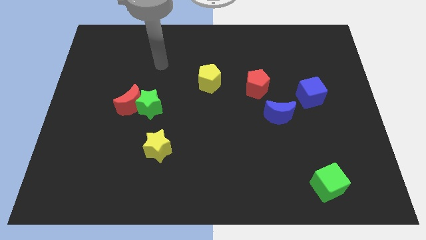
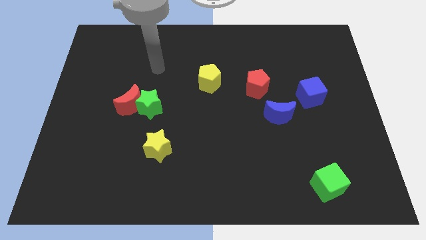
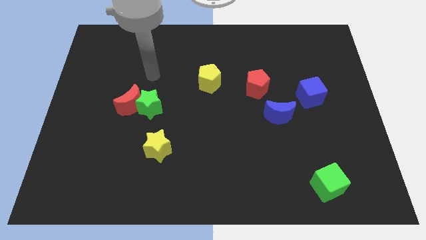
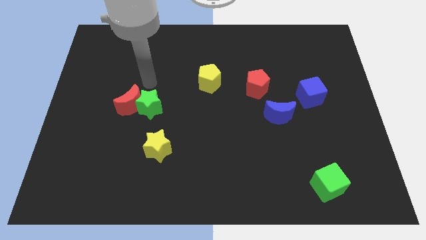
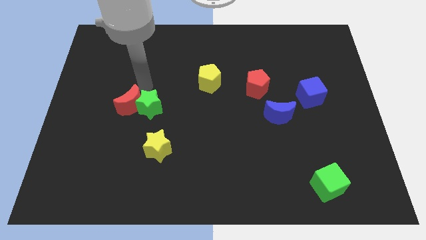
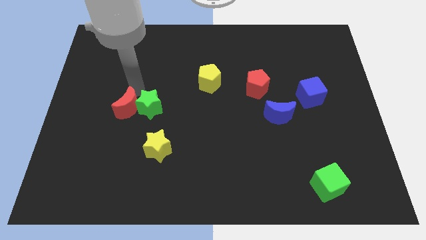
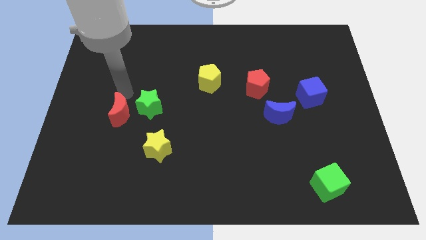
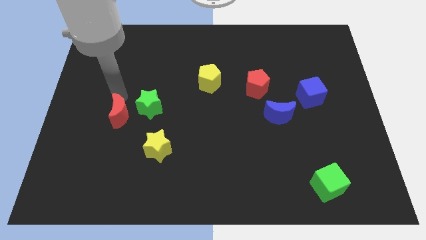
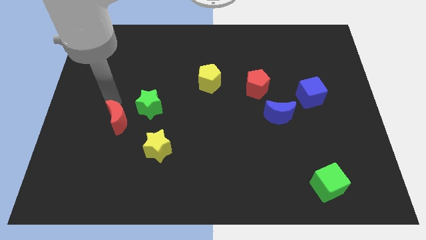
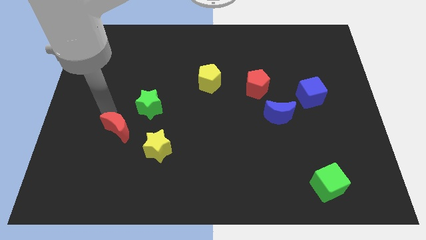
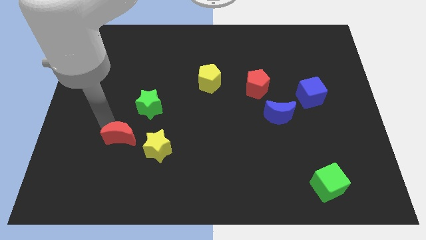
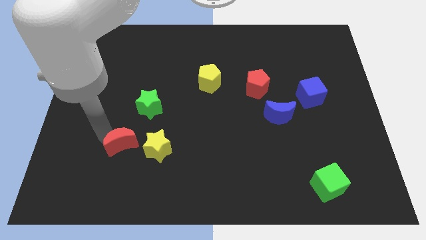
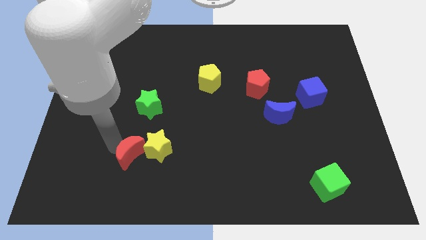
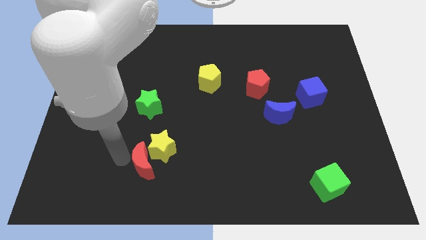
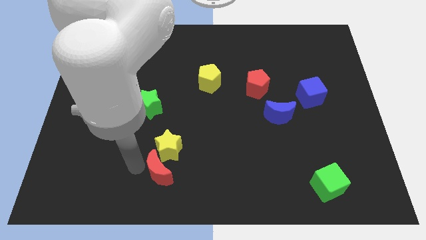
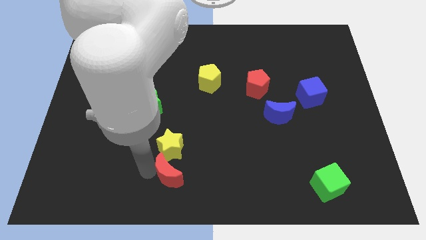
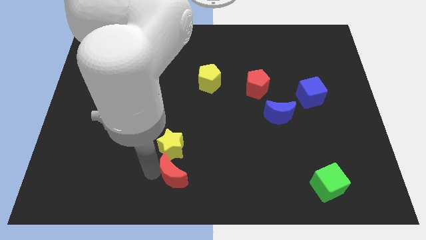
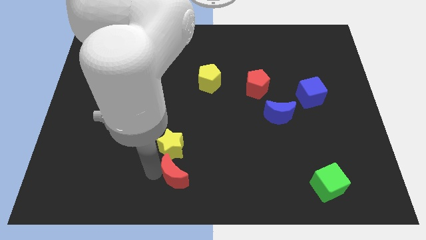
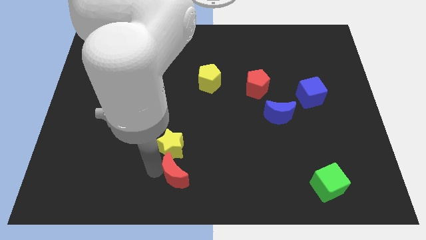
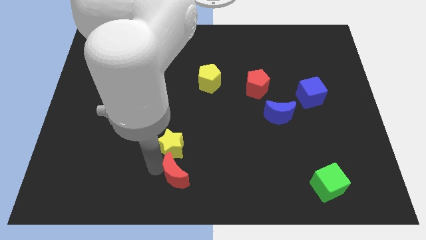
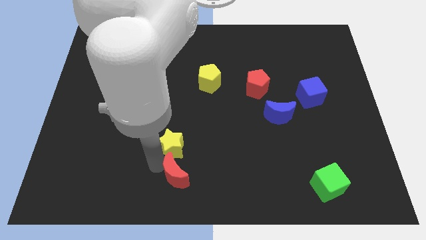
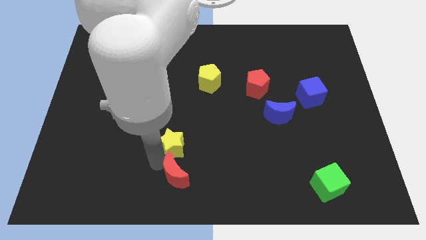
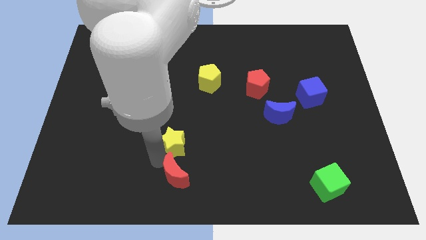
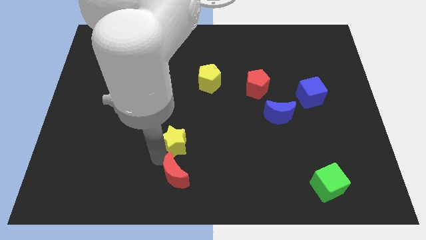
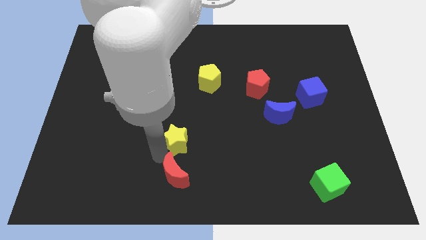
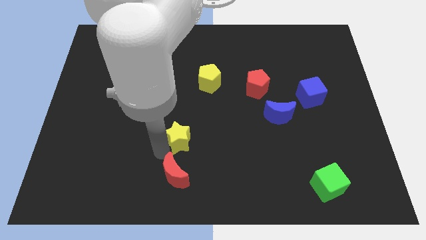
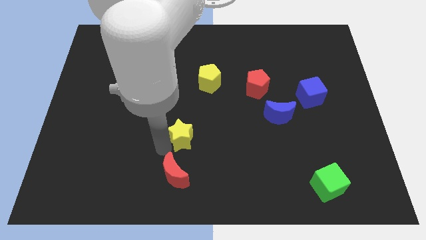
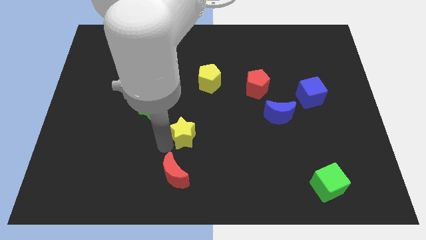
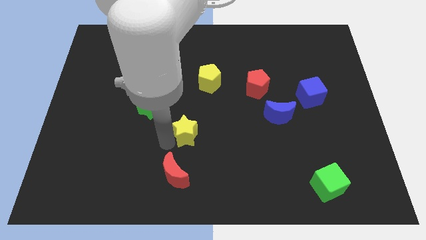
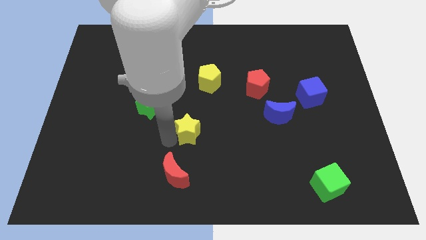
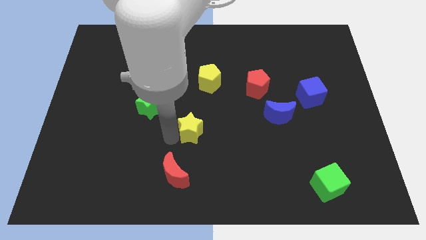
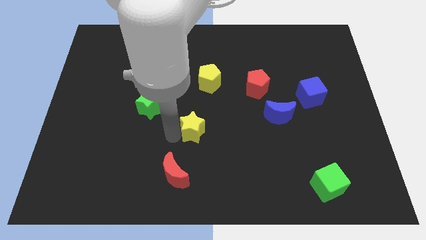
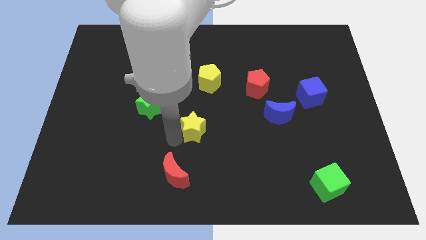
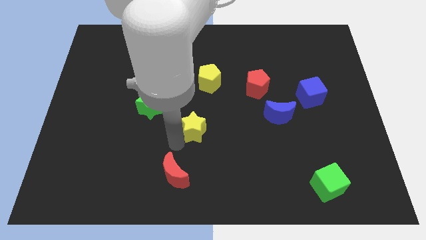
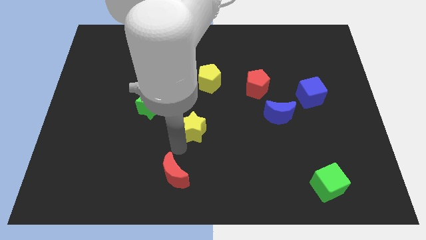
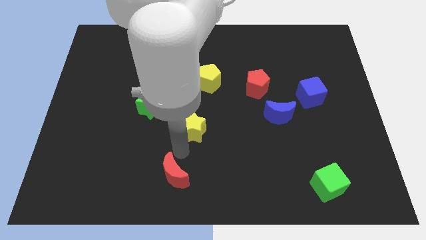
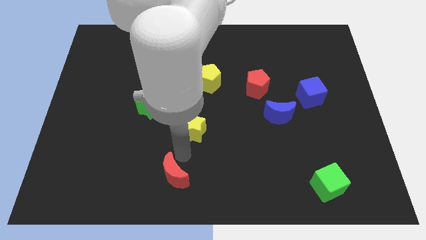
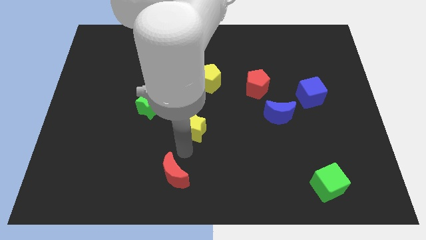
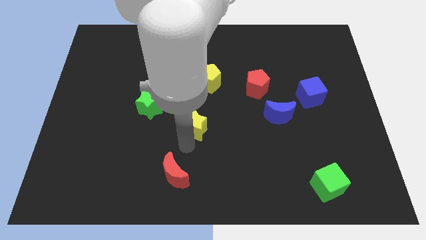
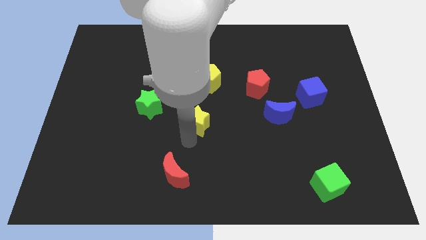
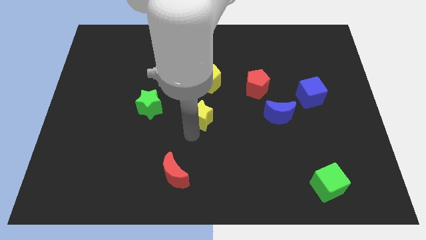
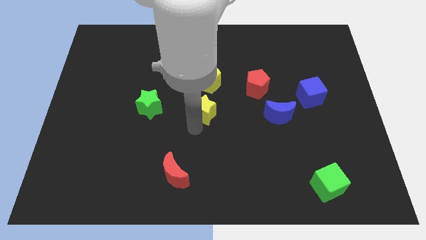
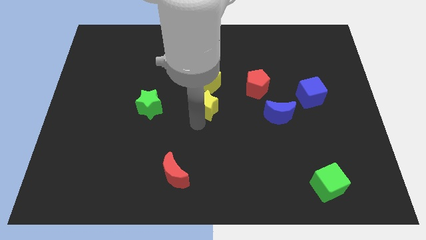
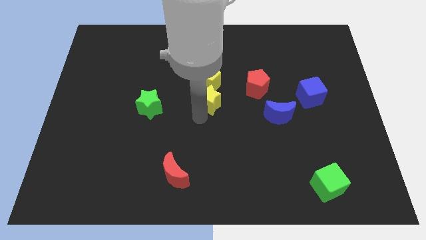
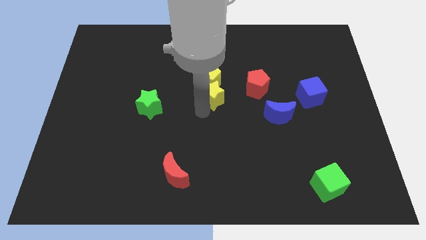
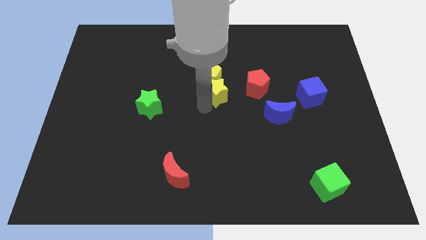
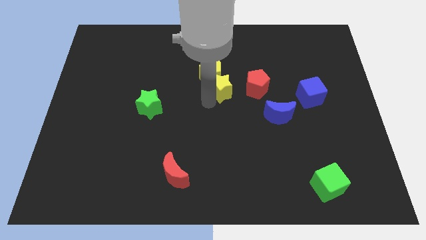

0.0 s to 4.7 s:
slide the yellow star diagonally upwards and right

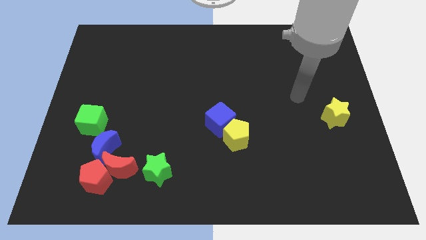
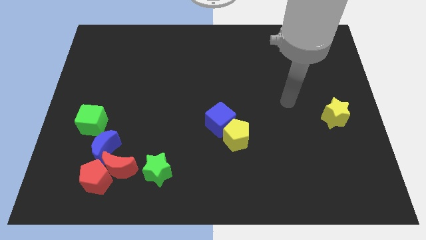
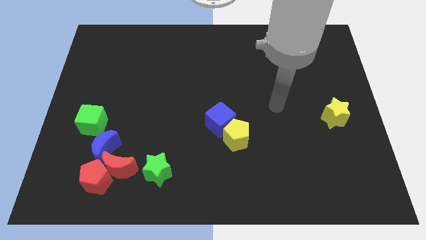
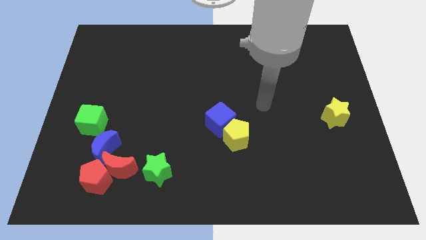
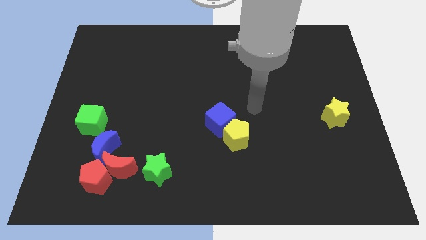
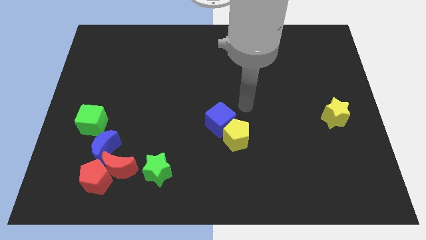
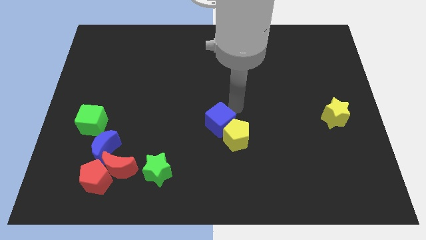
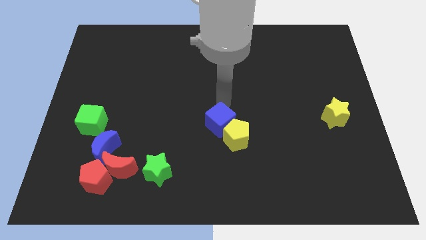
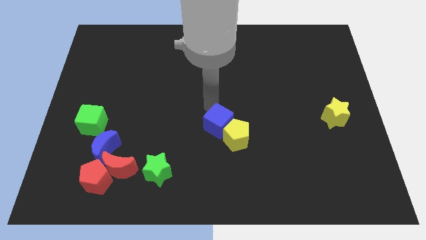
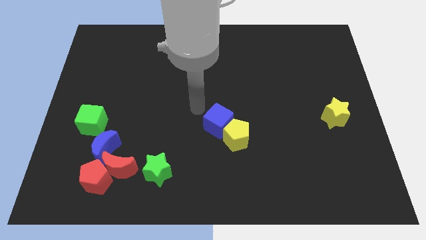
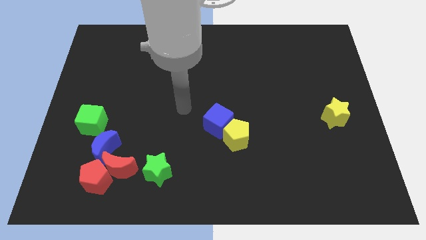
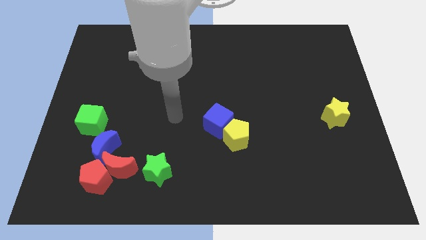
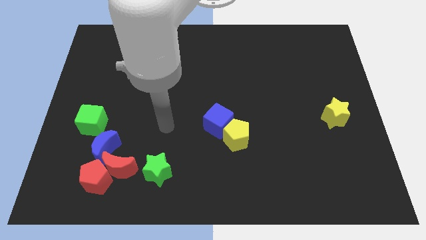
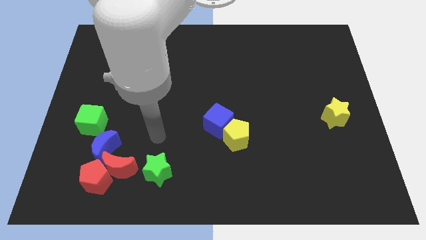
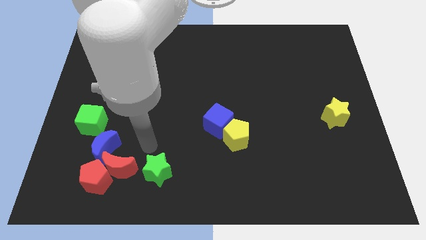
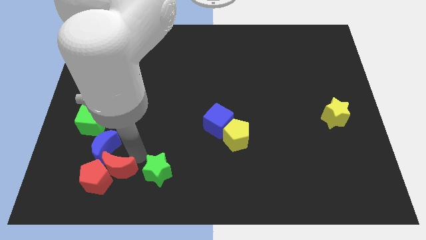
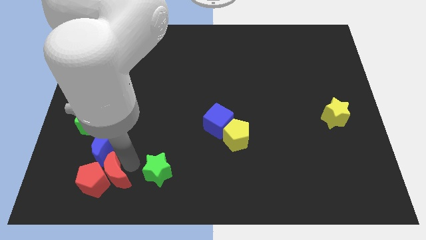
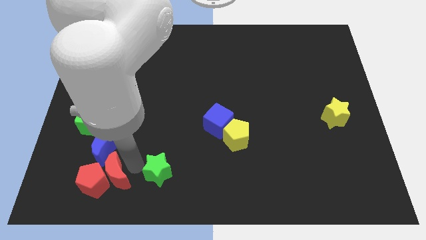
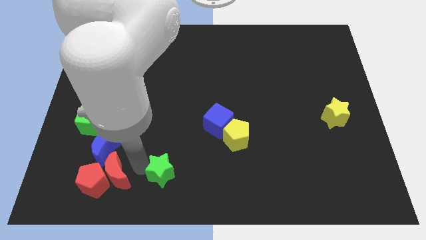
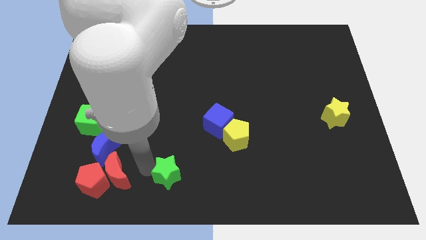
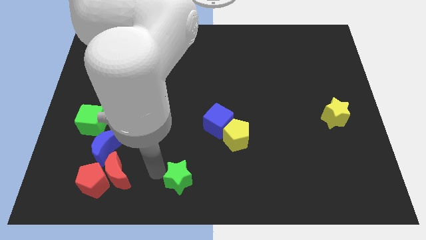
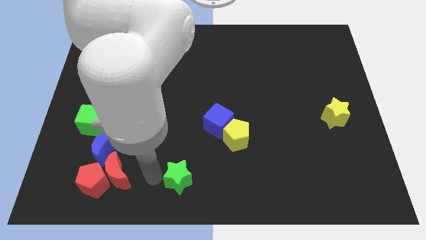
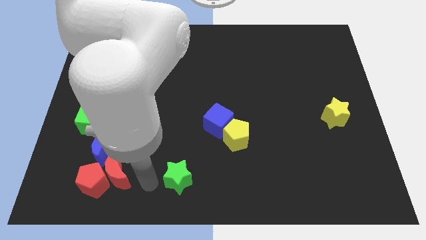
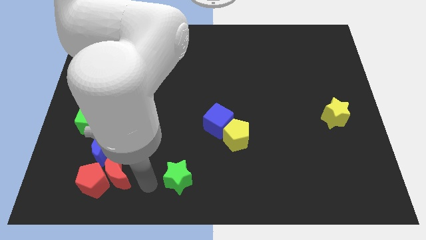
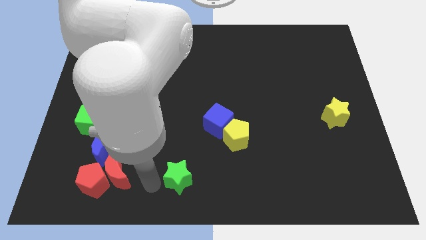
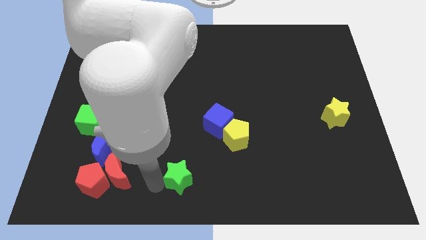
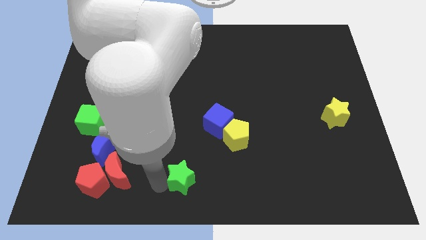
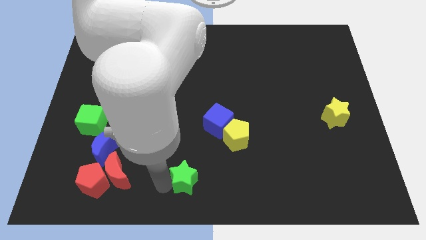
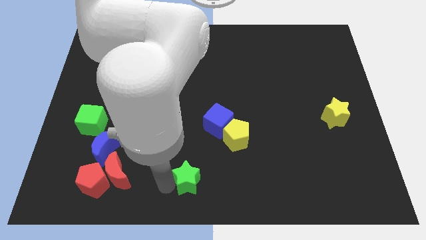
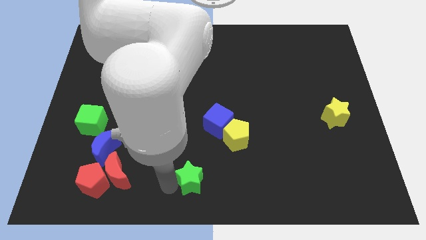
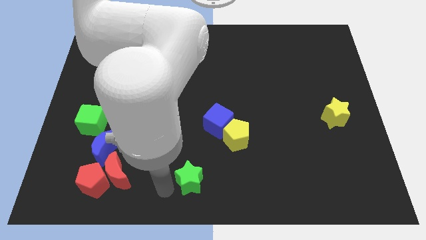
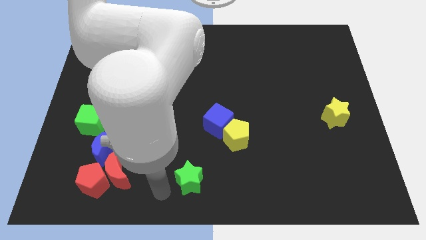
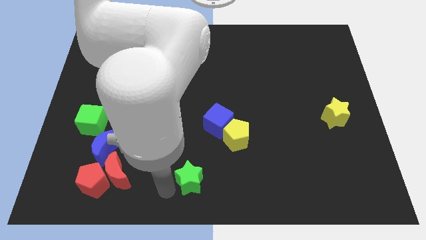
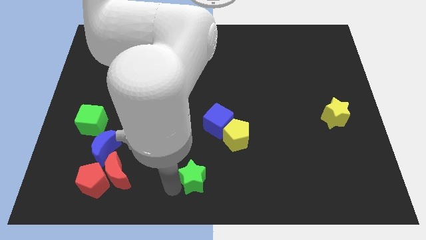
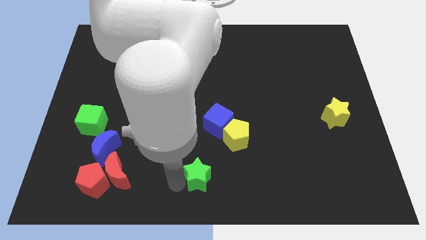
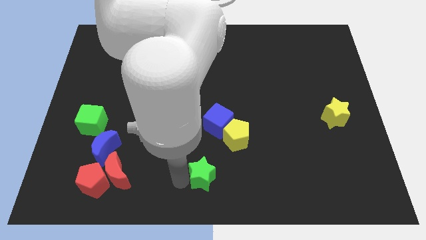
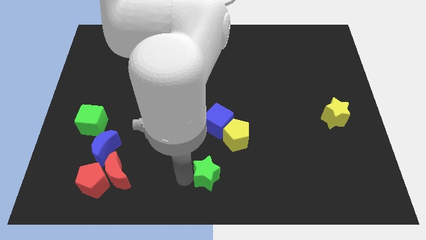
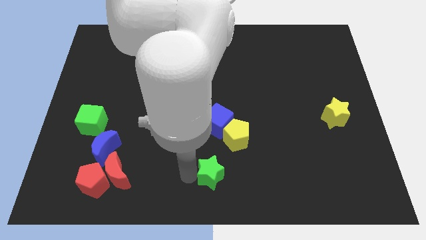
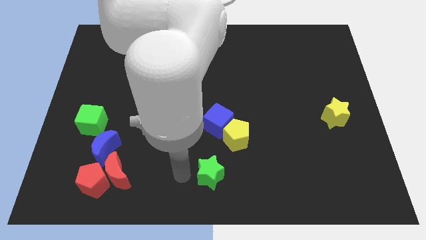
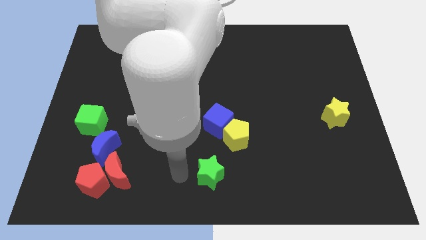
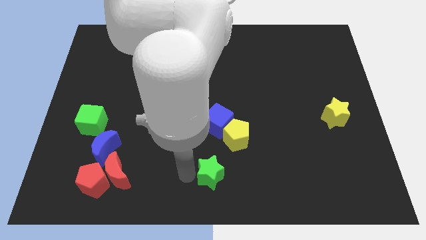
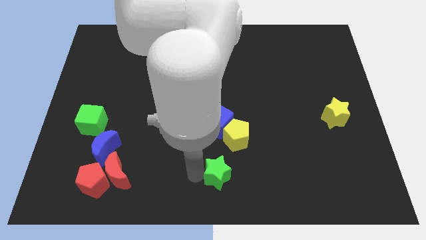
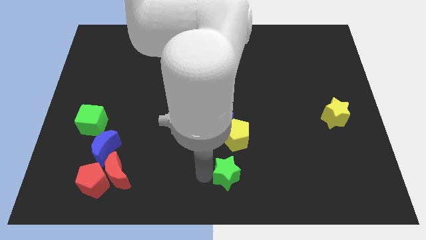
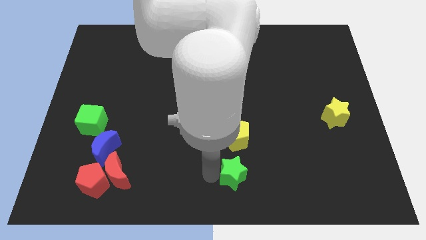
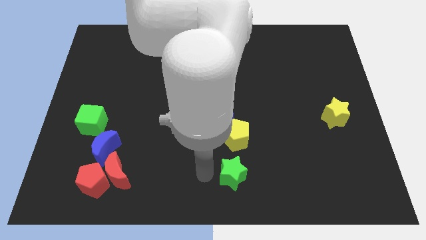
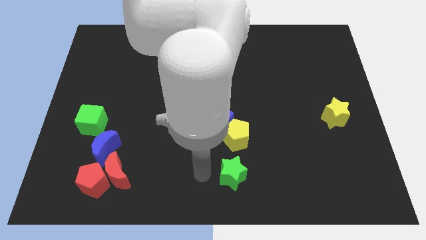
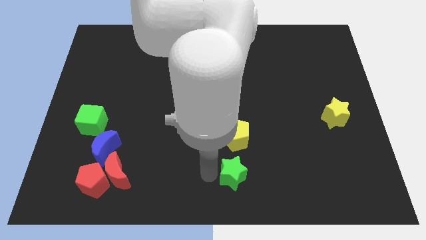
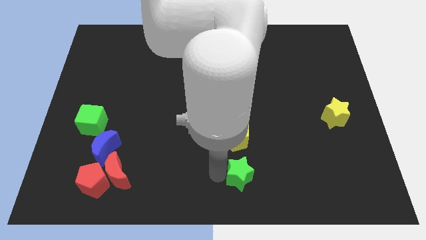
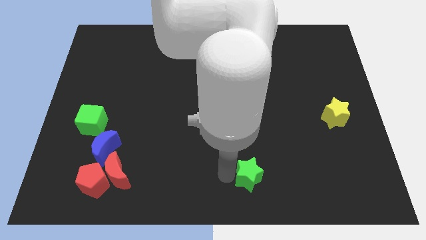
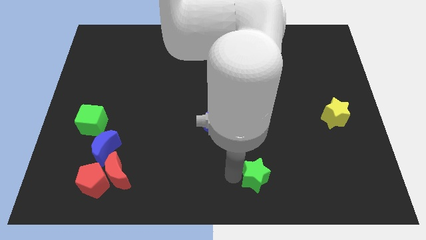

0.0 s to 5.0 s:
slide the green star right
